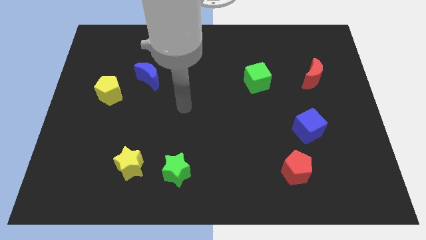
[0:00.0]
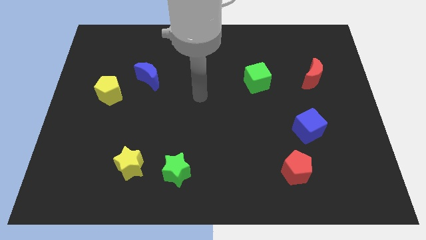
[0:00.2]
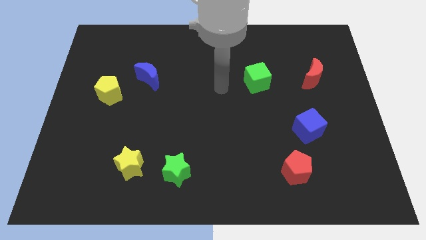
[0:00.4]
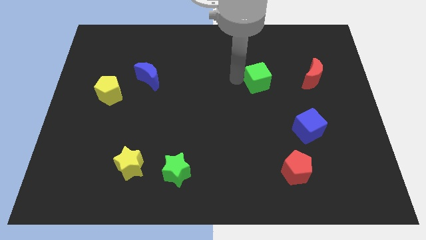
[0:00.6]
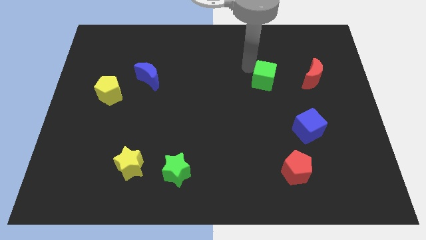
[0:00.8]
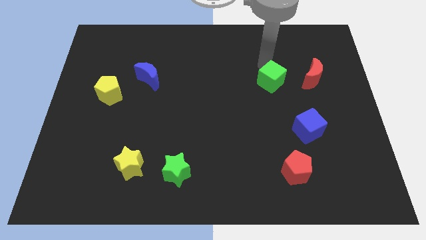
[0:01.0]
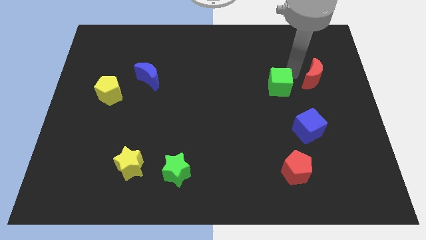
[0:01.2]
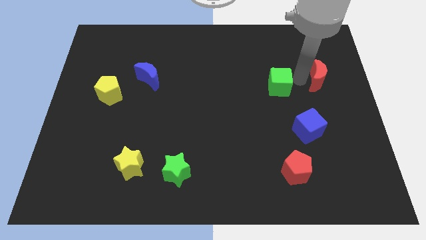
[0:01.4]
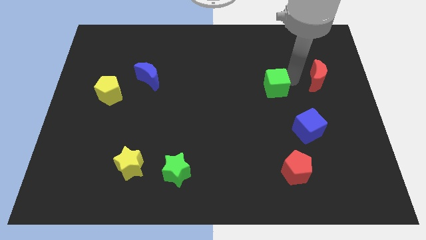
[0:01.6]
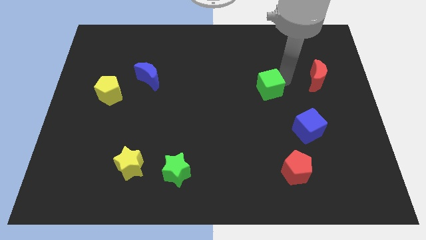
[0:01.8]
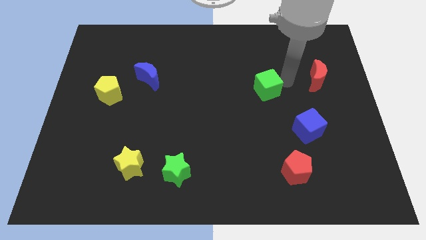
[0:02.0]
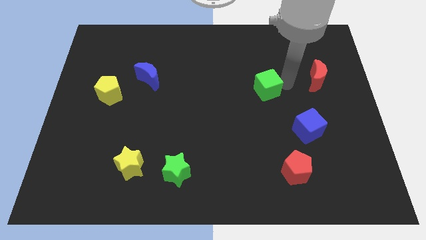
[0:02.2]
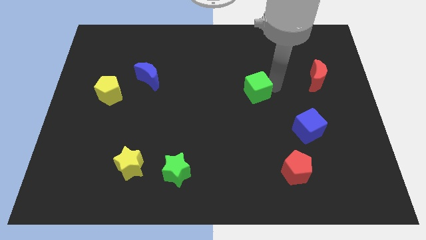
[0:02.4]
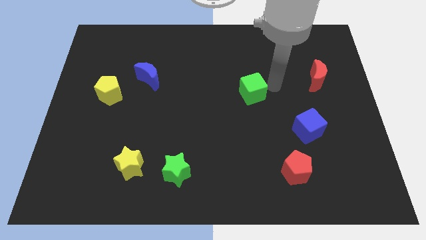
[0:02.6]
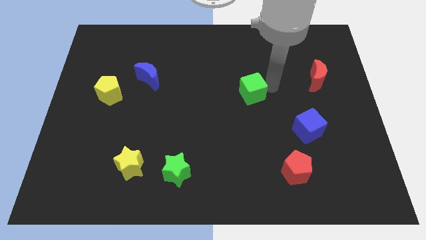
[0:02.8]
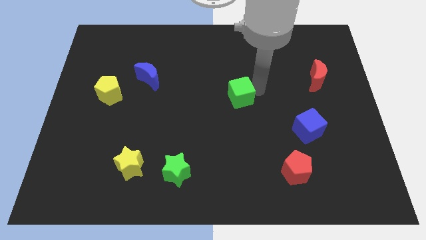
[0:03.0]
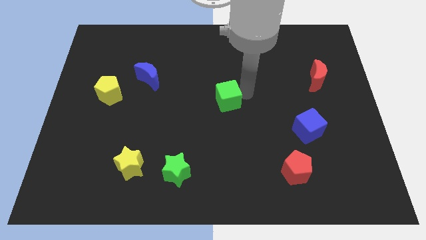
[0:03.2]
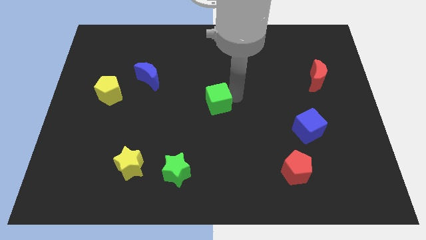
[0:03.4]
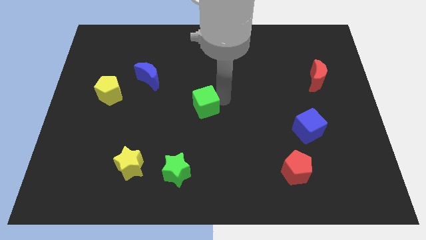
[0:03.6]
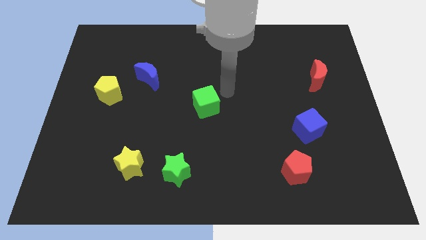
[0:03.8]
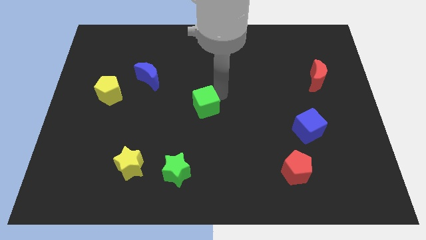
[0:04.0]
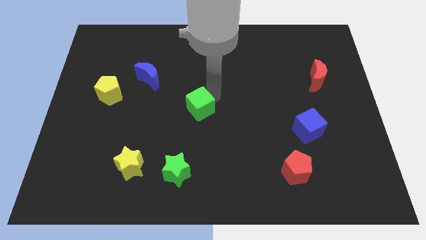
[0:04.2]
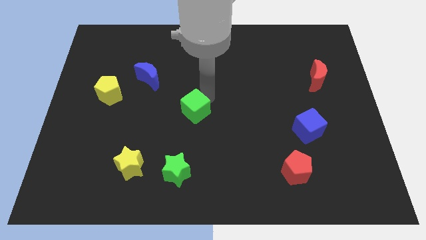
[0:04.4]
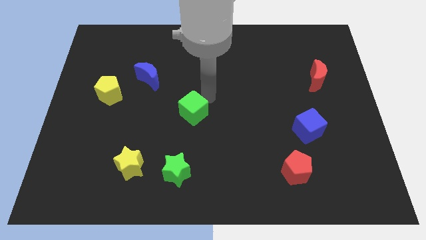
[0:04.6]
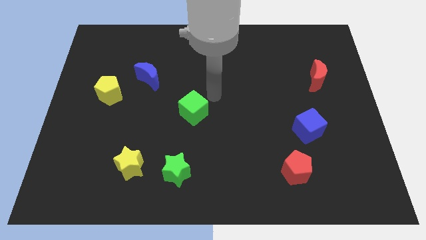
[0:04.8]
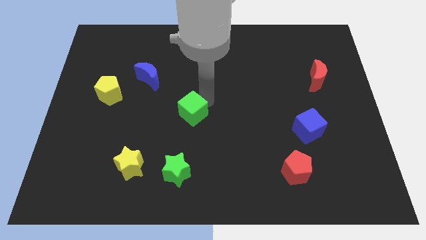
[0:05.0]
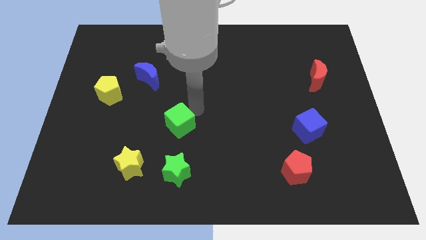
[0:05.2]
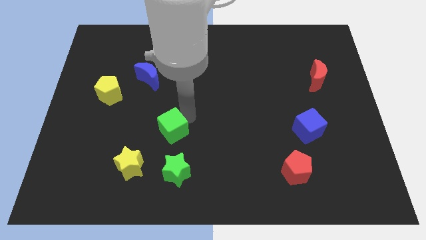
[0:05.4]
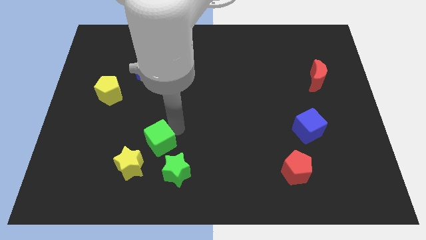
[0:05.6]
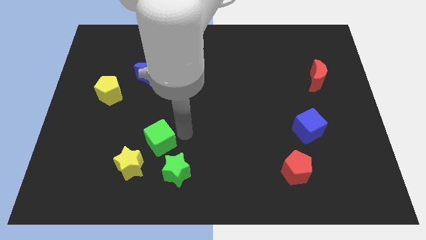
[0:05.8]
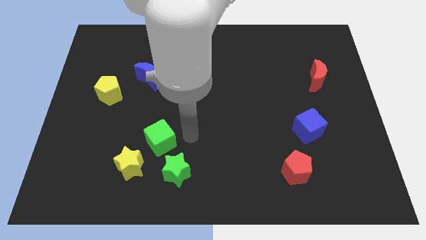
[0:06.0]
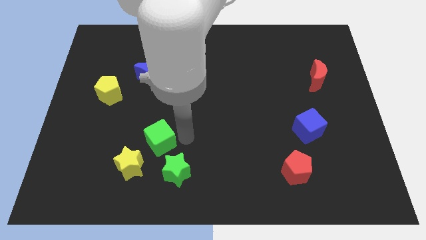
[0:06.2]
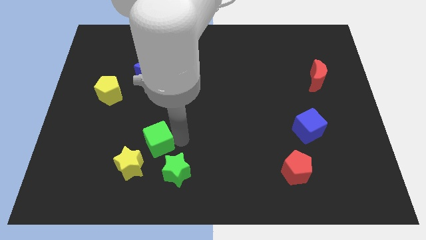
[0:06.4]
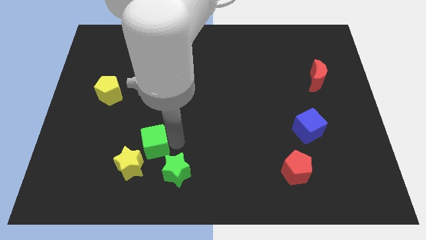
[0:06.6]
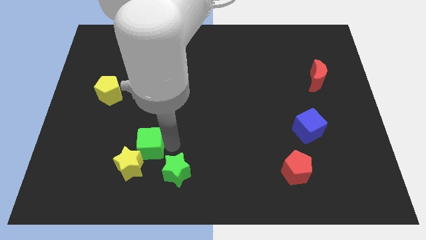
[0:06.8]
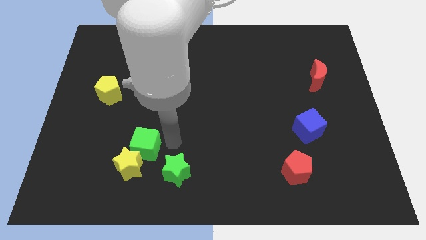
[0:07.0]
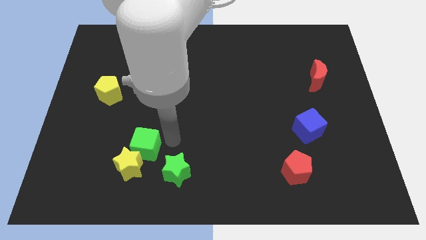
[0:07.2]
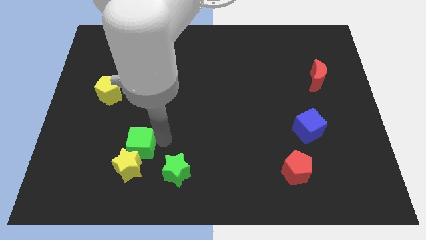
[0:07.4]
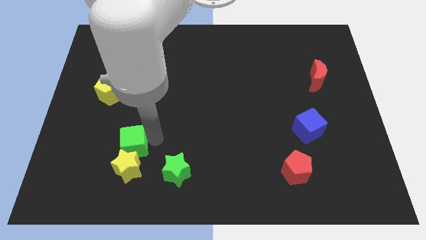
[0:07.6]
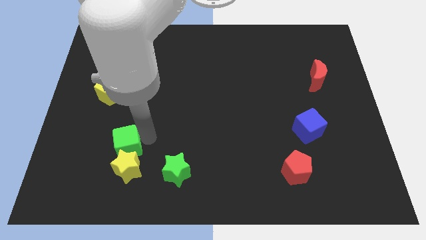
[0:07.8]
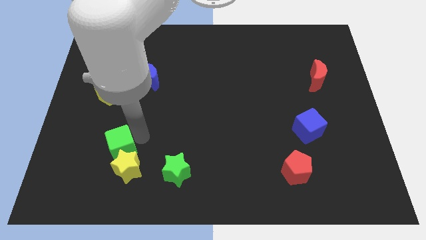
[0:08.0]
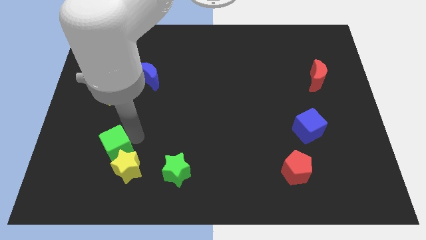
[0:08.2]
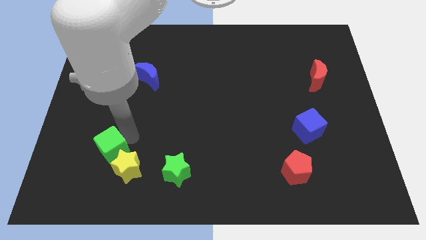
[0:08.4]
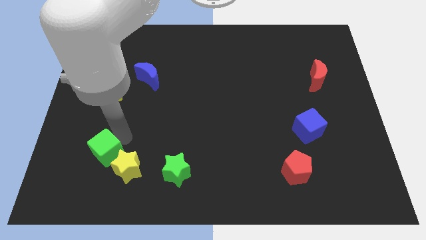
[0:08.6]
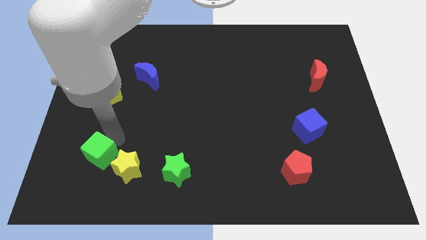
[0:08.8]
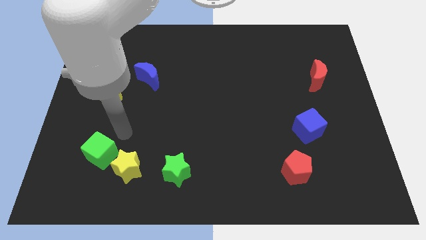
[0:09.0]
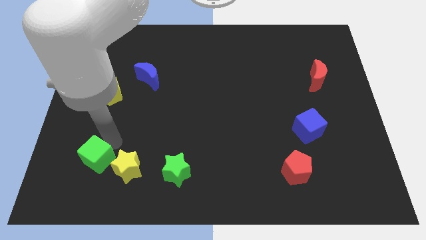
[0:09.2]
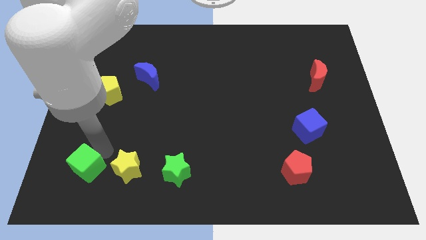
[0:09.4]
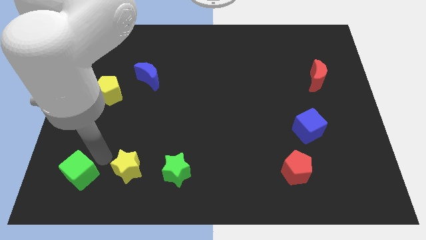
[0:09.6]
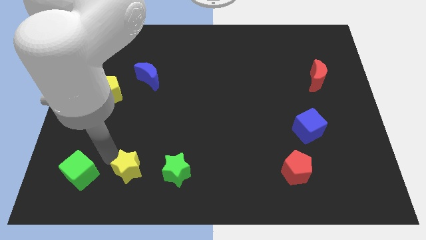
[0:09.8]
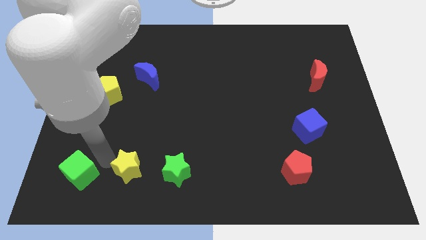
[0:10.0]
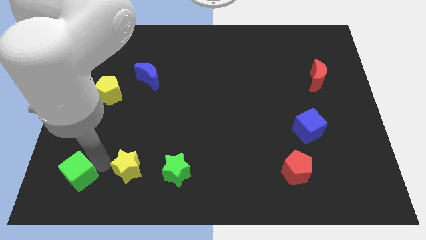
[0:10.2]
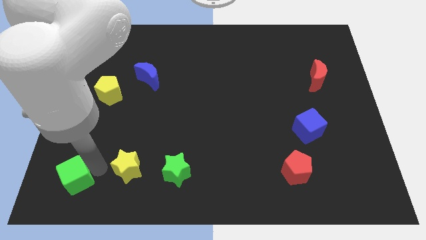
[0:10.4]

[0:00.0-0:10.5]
put the green cube to the bottom left of the board
